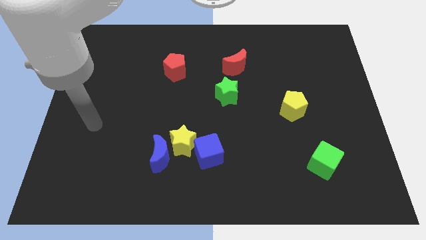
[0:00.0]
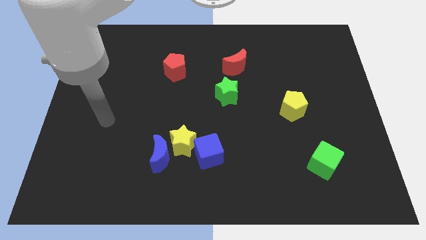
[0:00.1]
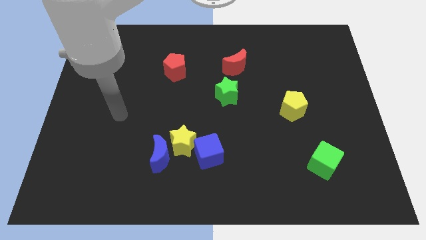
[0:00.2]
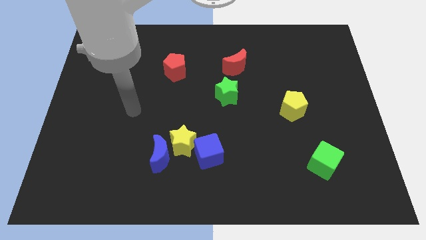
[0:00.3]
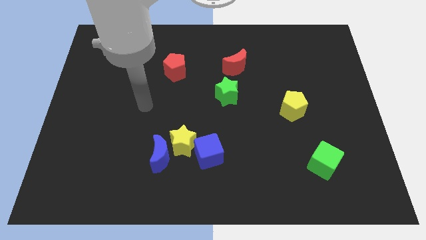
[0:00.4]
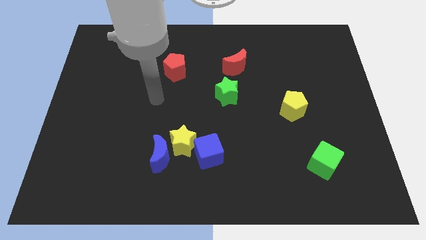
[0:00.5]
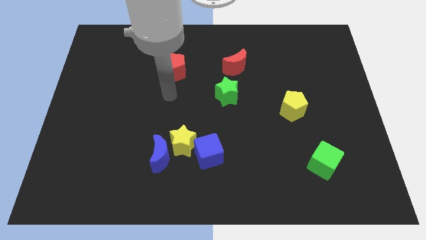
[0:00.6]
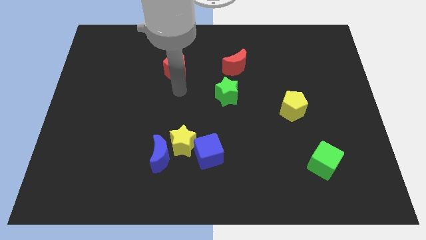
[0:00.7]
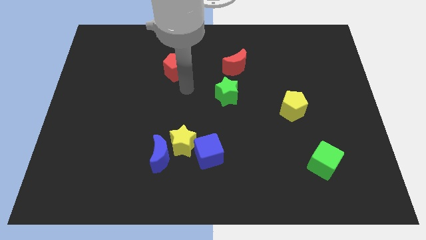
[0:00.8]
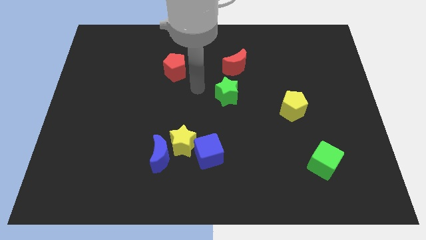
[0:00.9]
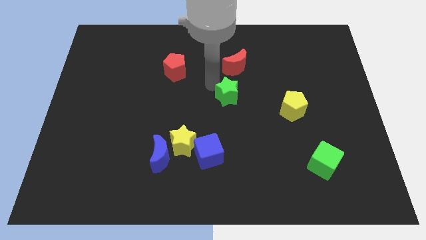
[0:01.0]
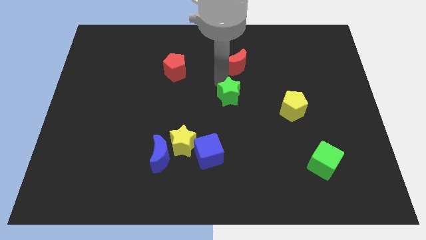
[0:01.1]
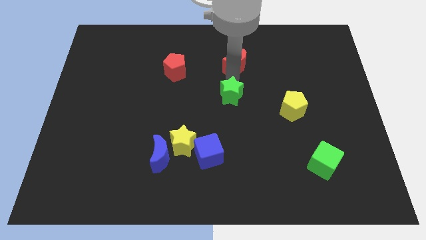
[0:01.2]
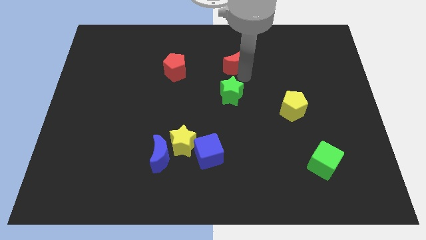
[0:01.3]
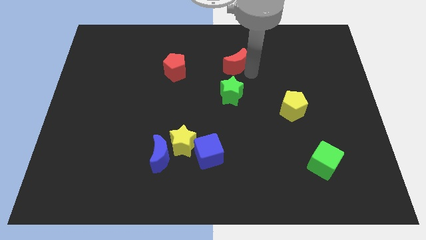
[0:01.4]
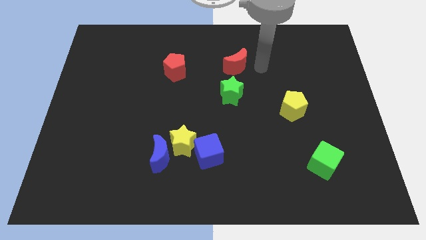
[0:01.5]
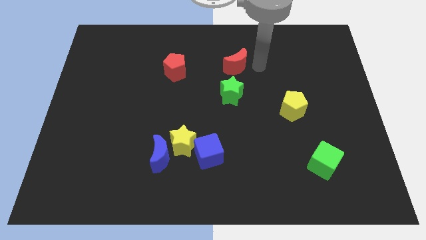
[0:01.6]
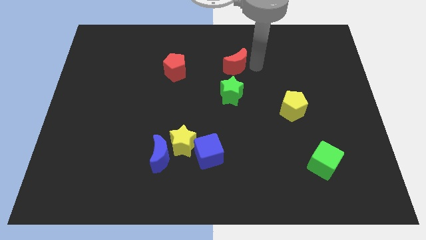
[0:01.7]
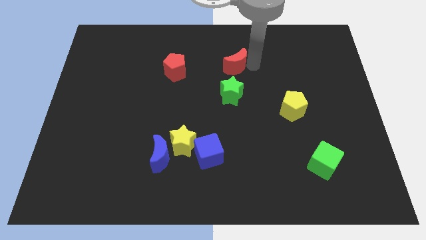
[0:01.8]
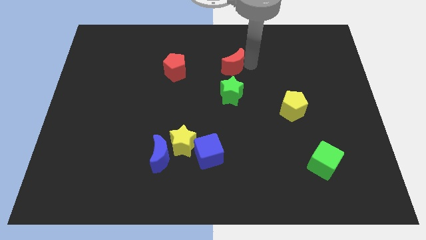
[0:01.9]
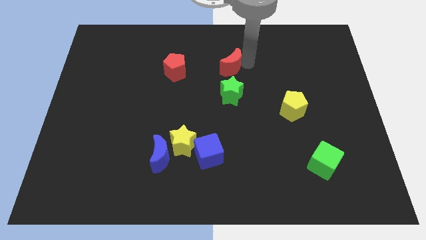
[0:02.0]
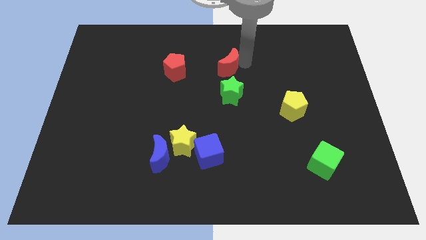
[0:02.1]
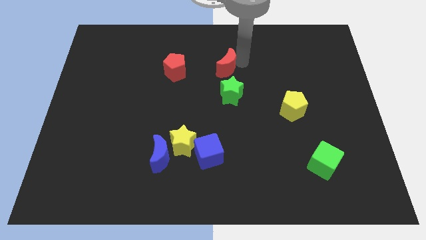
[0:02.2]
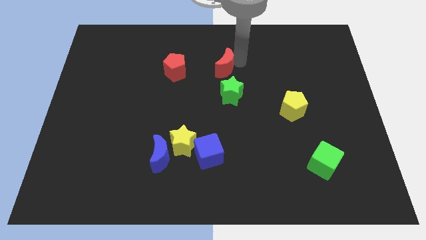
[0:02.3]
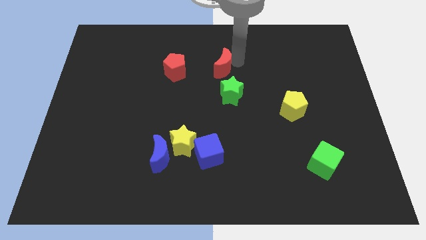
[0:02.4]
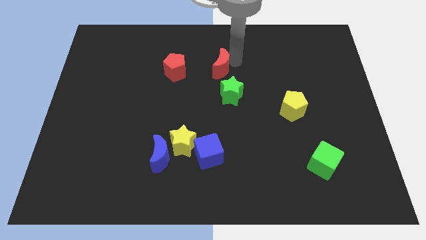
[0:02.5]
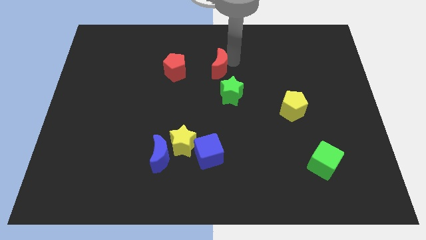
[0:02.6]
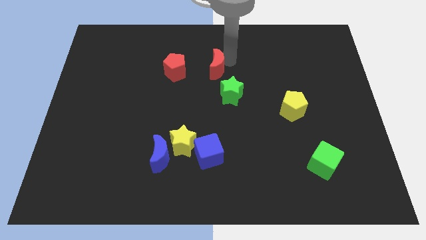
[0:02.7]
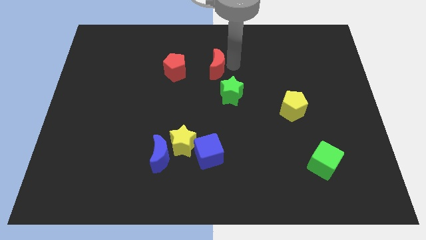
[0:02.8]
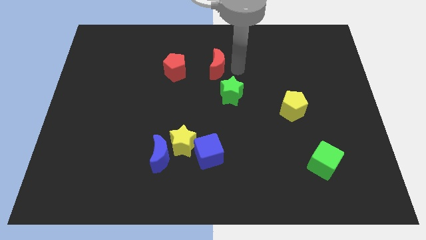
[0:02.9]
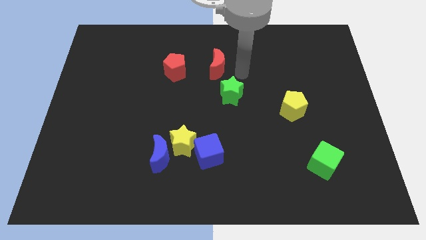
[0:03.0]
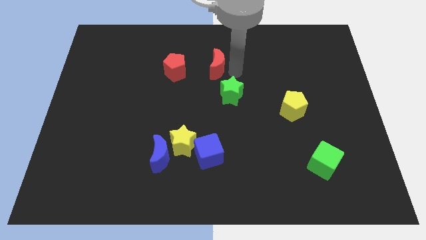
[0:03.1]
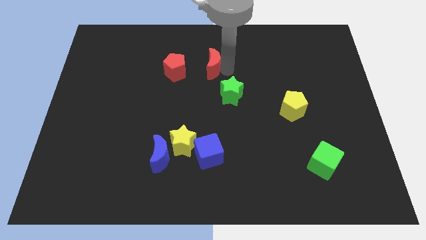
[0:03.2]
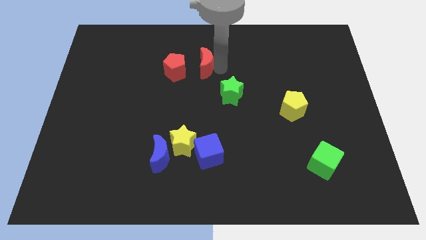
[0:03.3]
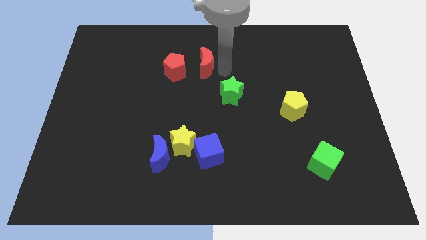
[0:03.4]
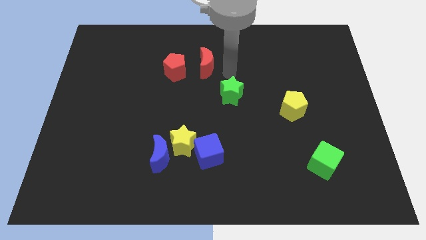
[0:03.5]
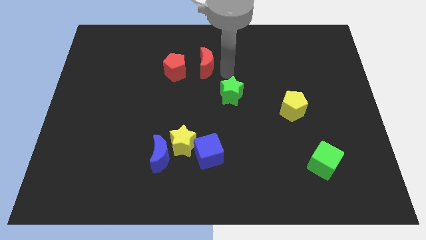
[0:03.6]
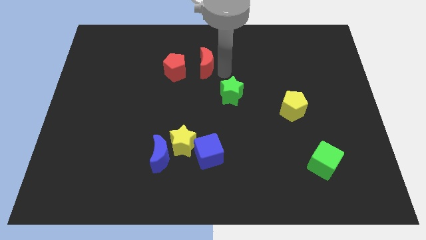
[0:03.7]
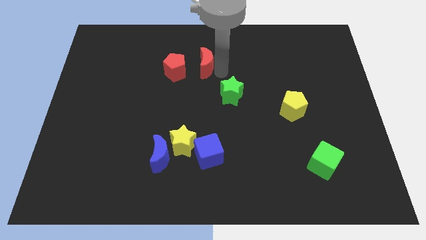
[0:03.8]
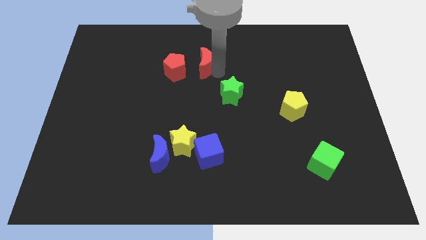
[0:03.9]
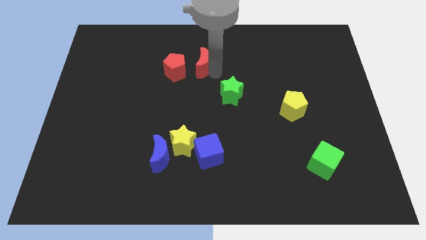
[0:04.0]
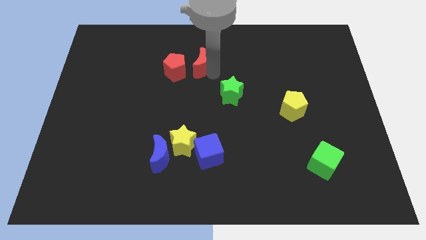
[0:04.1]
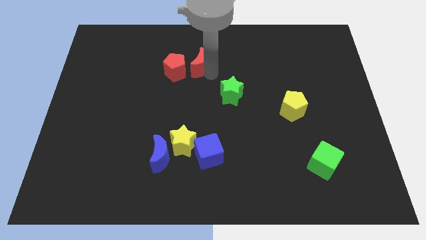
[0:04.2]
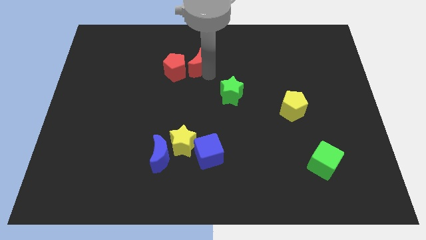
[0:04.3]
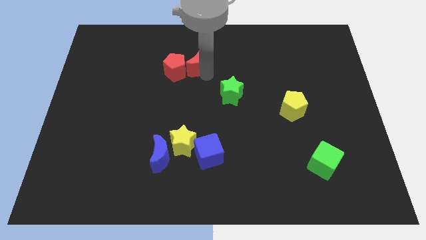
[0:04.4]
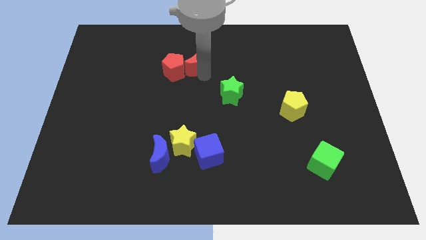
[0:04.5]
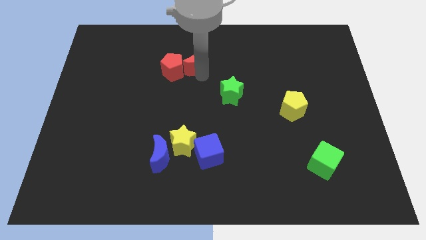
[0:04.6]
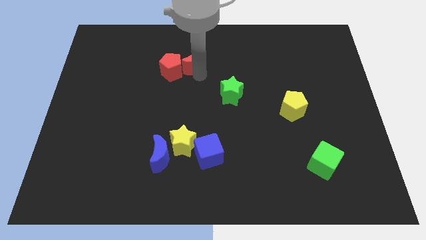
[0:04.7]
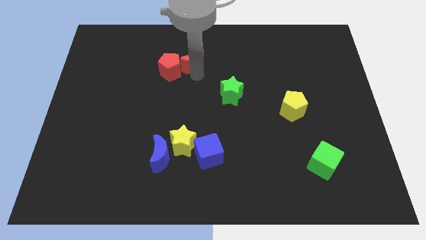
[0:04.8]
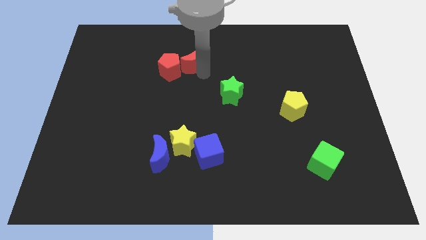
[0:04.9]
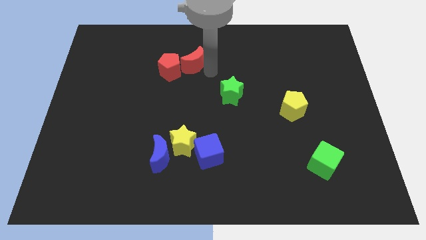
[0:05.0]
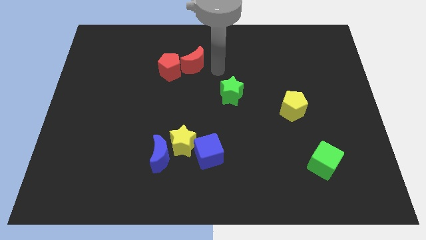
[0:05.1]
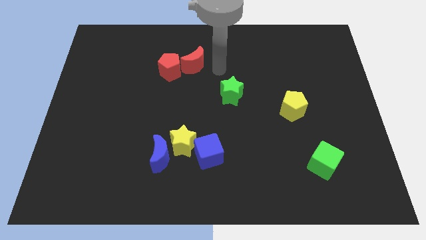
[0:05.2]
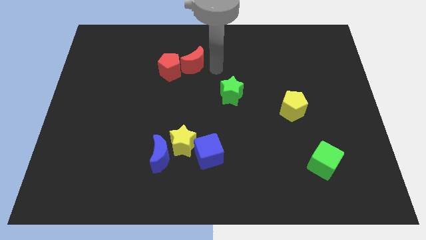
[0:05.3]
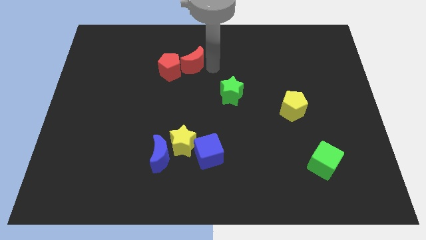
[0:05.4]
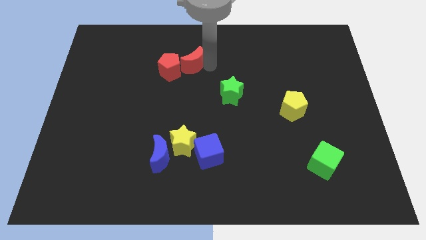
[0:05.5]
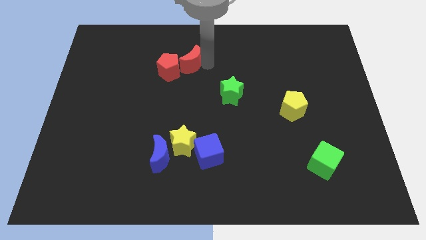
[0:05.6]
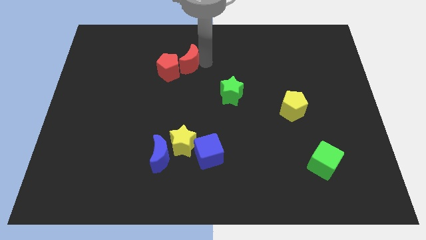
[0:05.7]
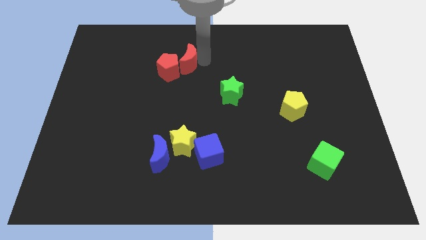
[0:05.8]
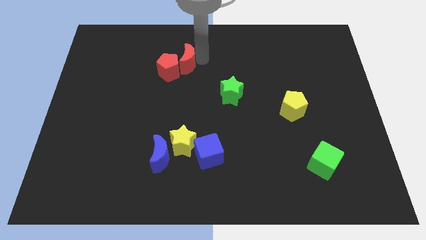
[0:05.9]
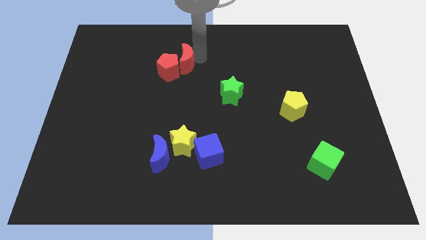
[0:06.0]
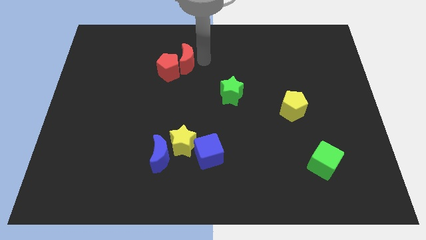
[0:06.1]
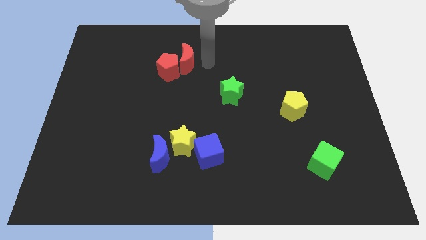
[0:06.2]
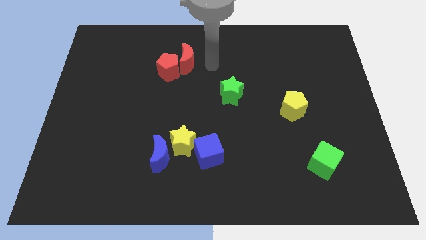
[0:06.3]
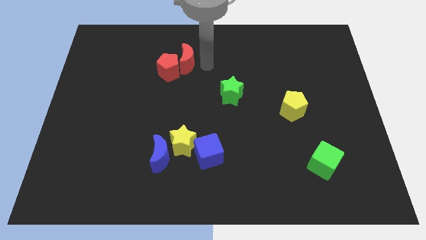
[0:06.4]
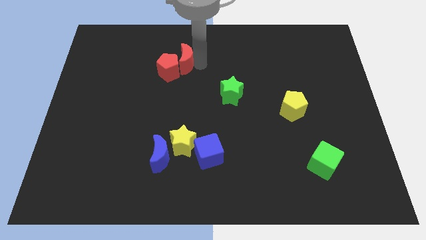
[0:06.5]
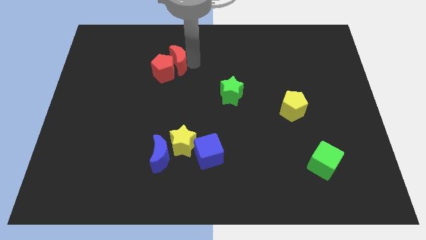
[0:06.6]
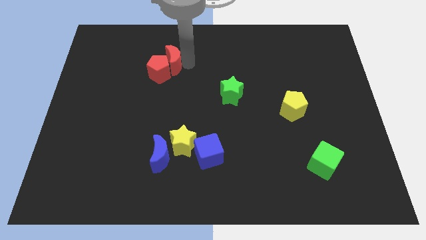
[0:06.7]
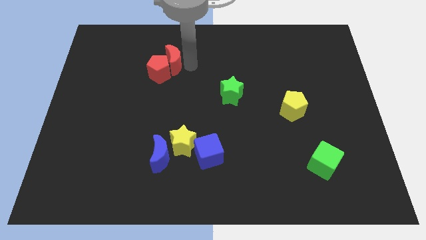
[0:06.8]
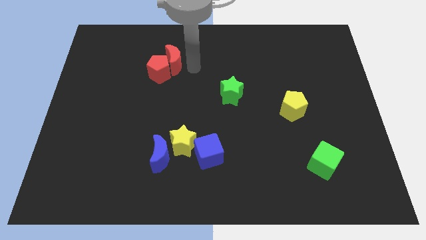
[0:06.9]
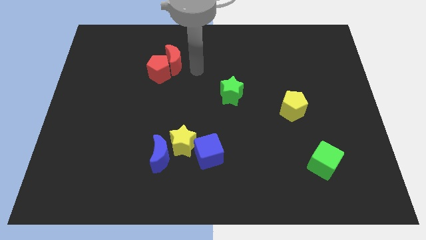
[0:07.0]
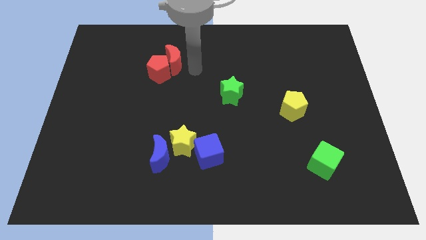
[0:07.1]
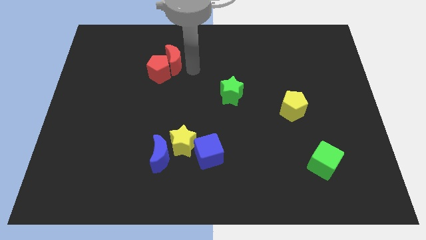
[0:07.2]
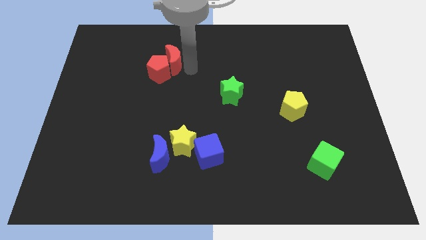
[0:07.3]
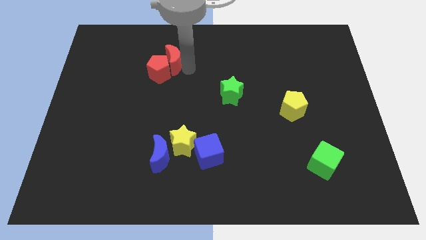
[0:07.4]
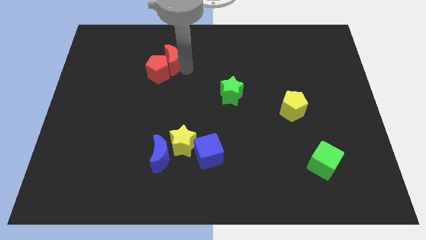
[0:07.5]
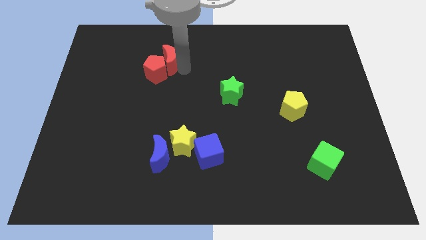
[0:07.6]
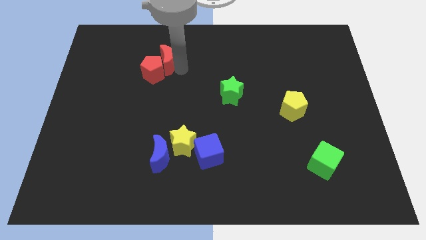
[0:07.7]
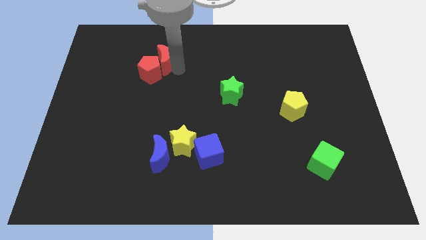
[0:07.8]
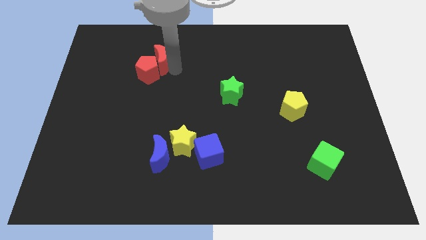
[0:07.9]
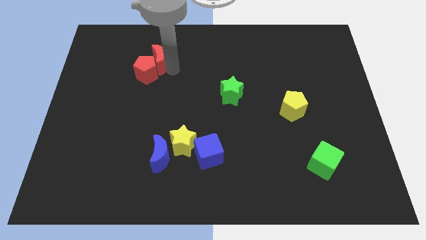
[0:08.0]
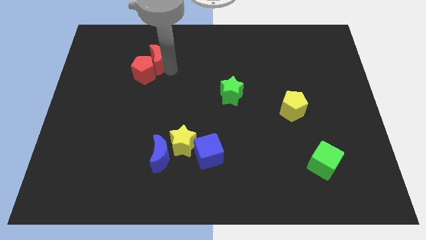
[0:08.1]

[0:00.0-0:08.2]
push the red moon left
